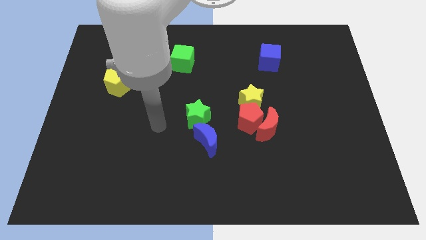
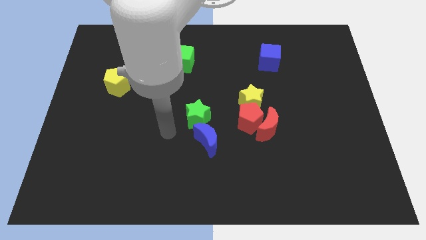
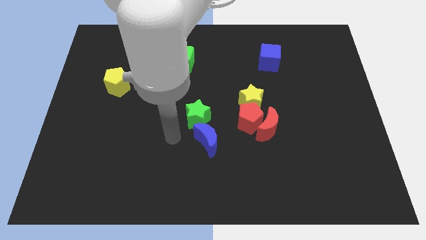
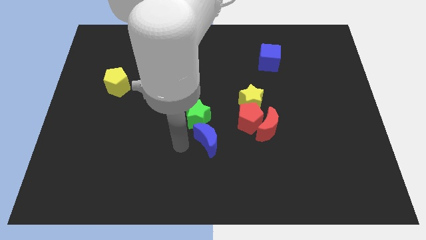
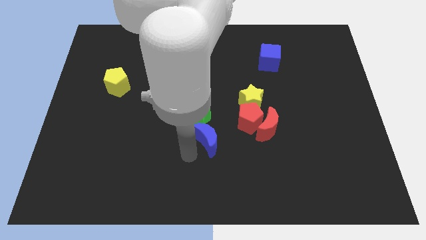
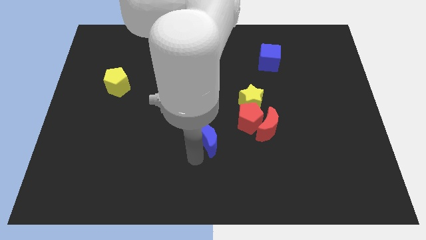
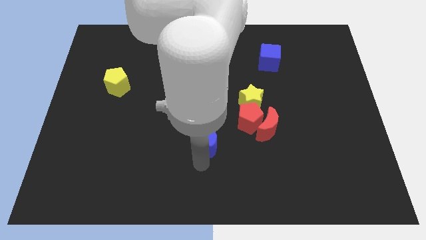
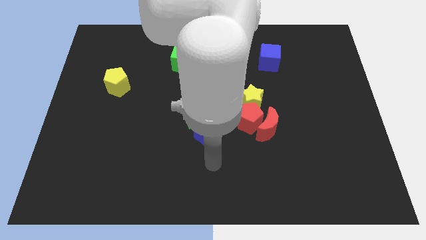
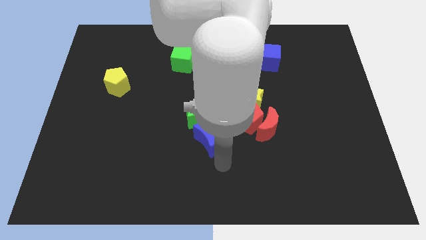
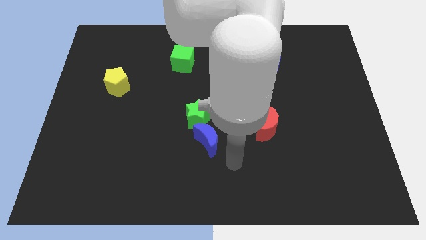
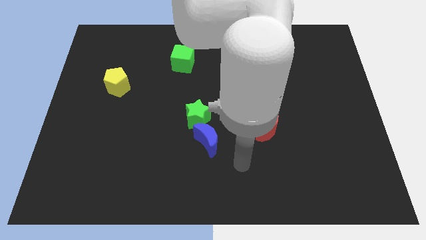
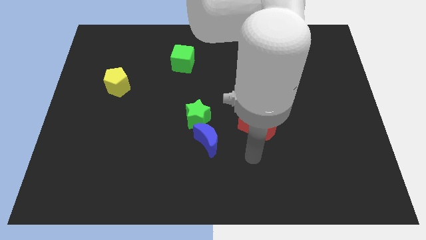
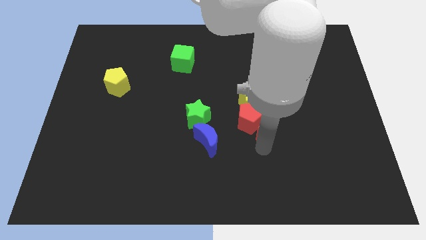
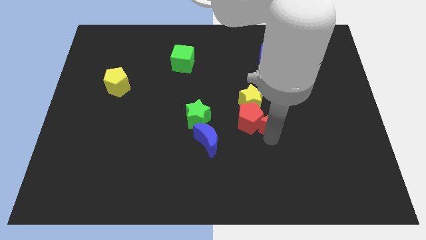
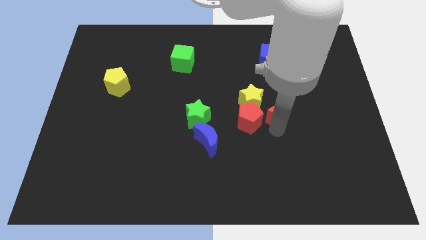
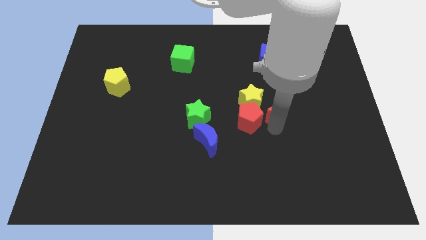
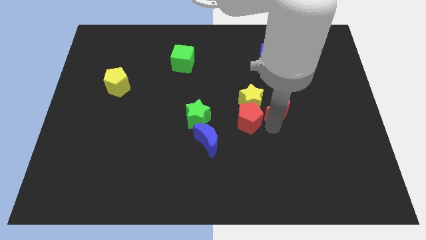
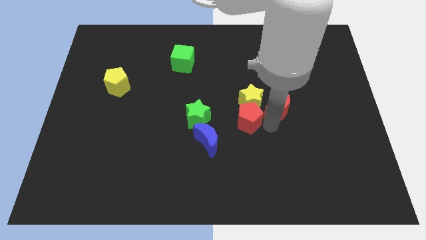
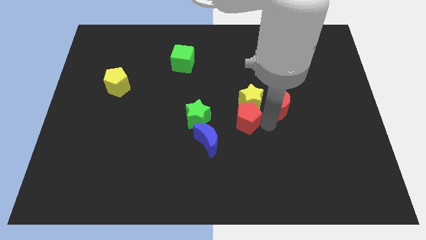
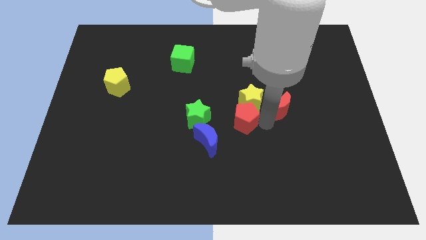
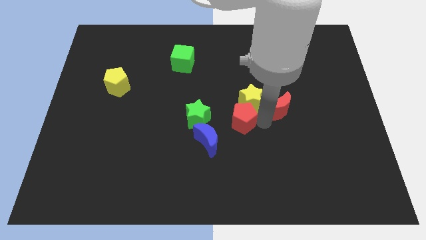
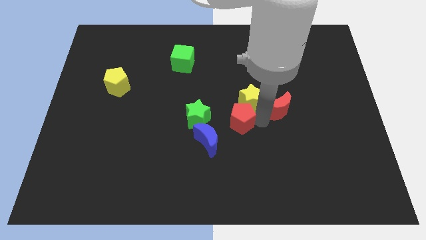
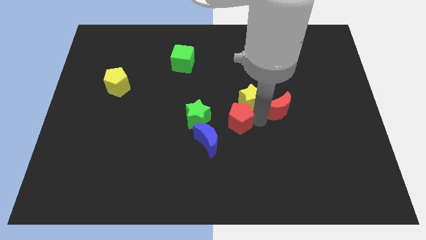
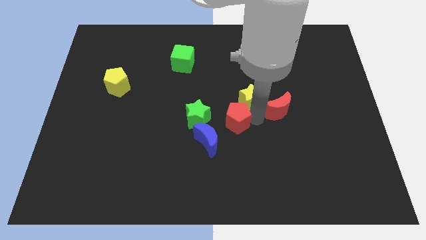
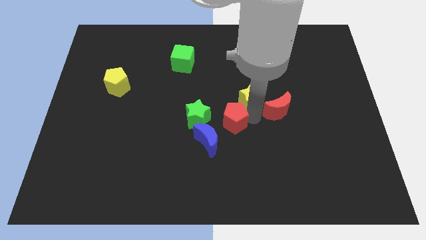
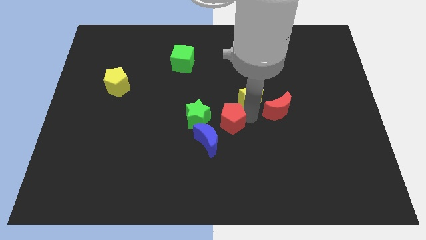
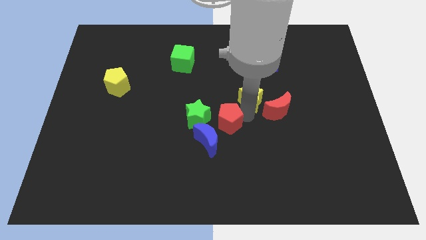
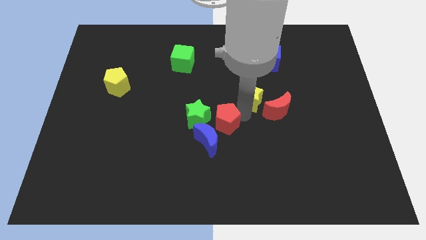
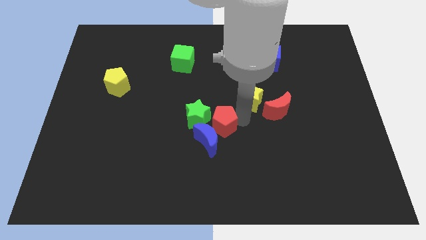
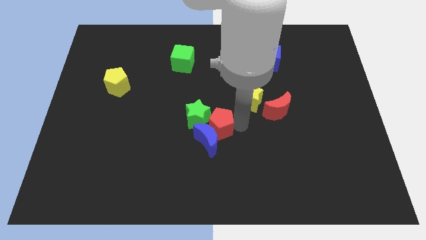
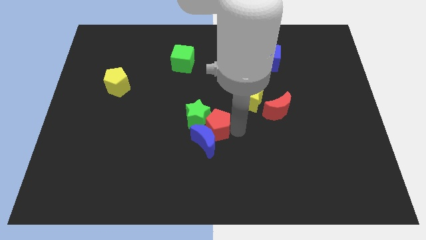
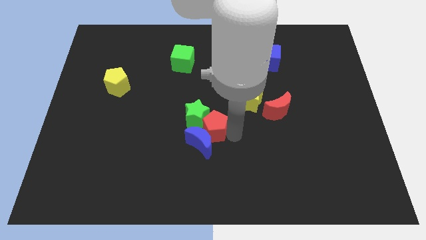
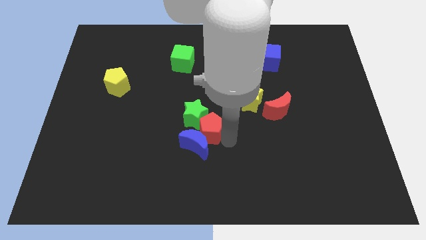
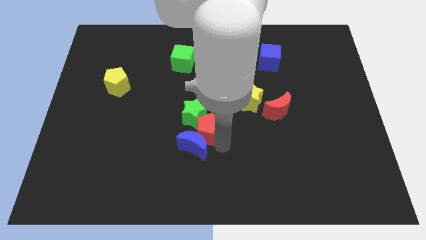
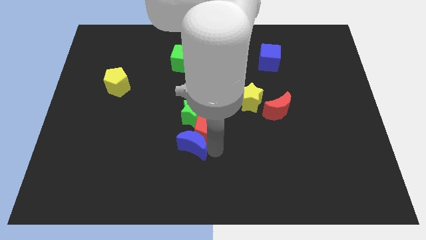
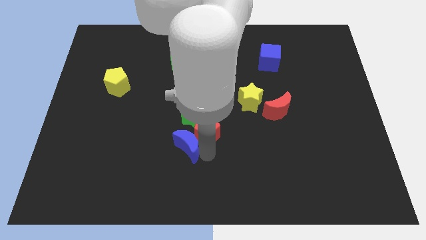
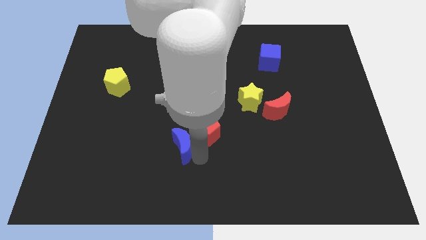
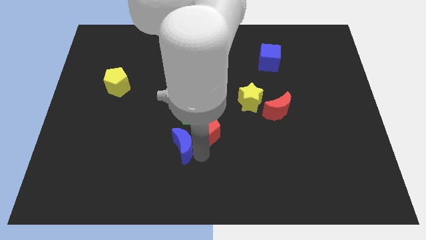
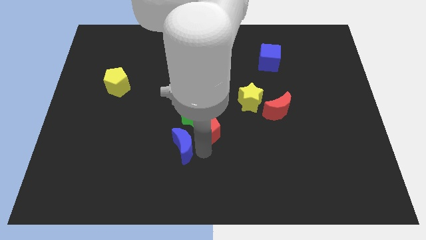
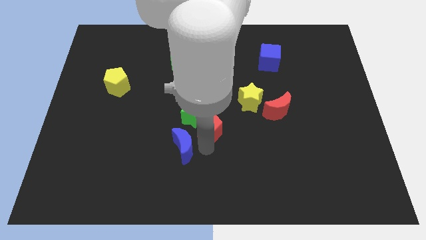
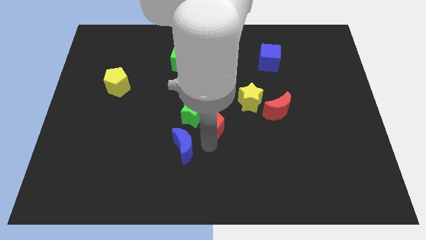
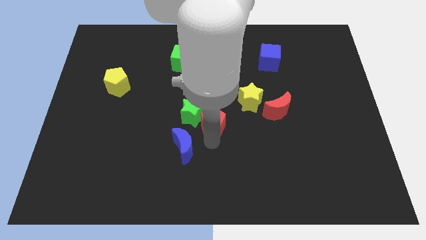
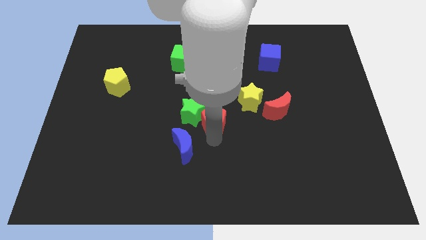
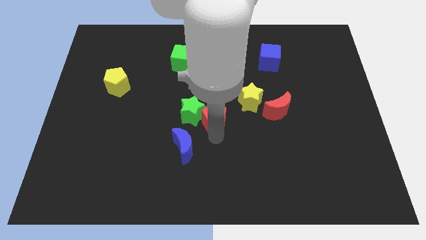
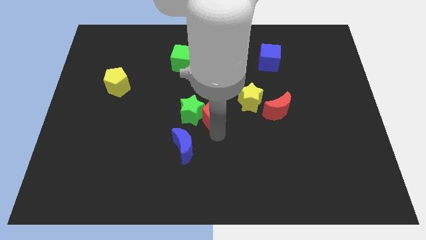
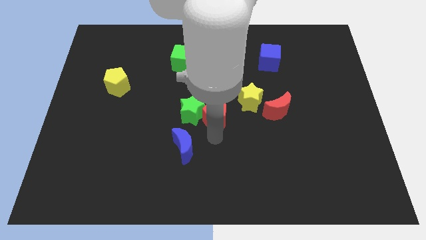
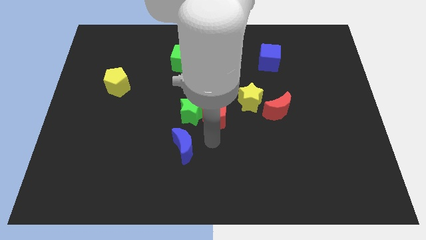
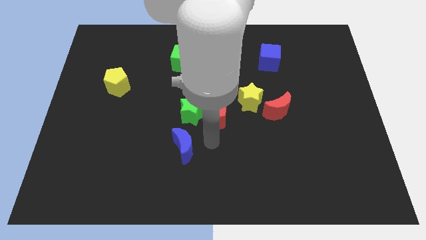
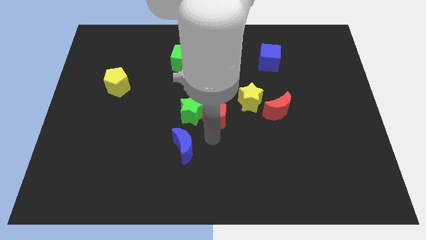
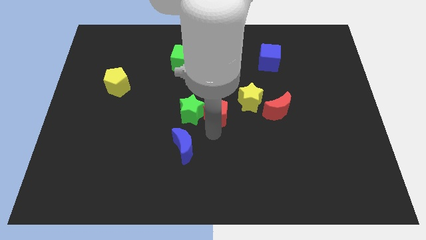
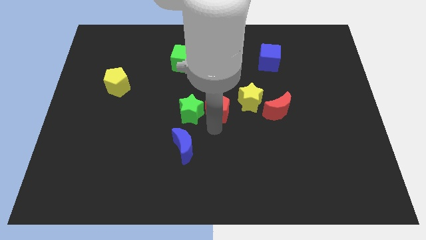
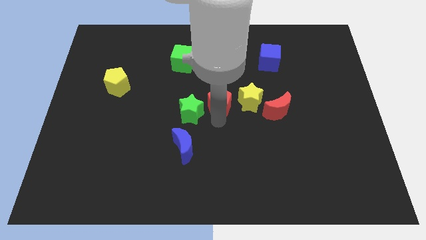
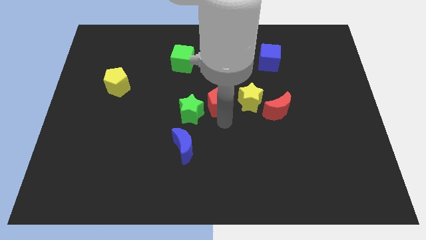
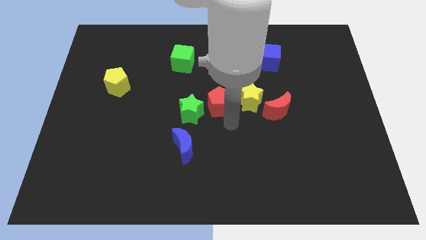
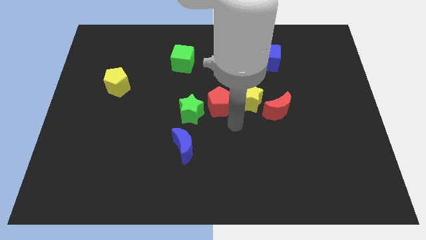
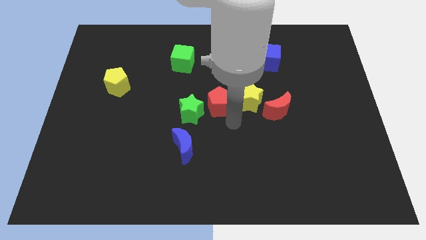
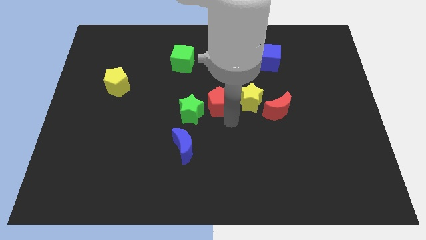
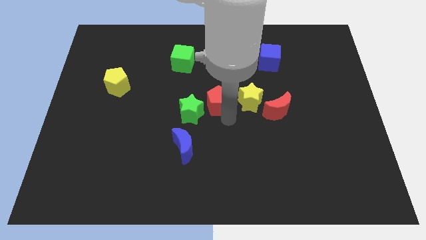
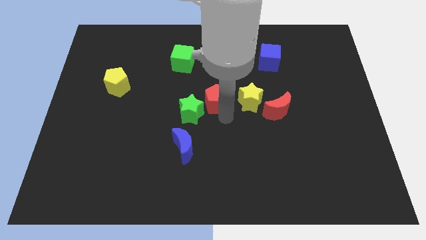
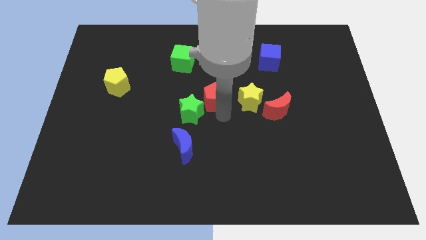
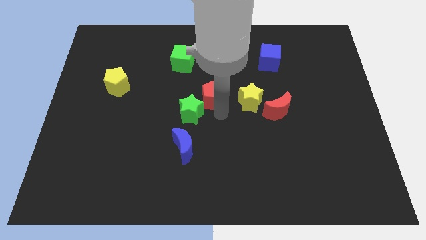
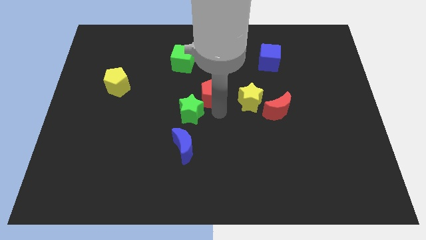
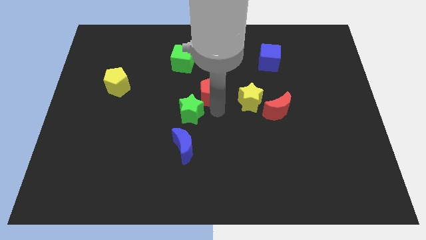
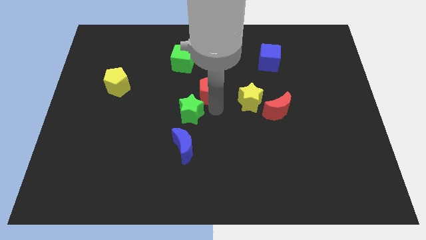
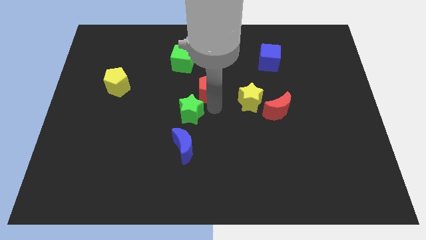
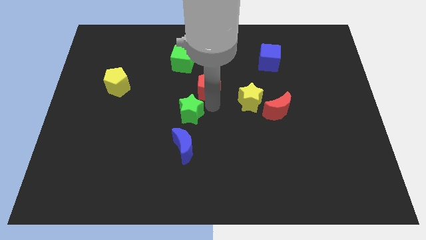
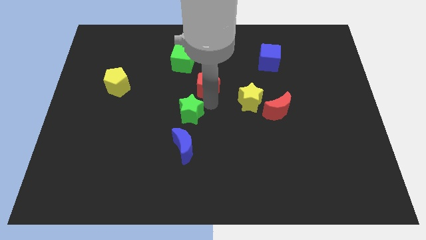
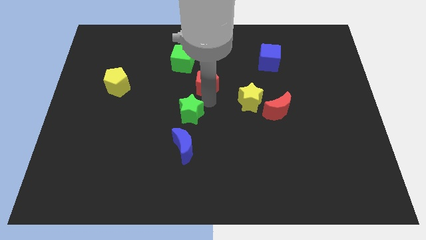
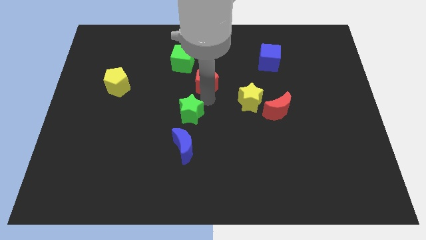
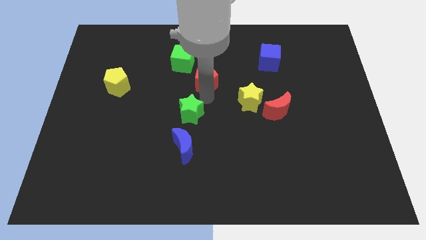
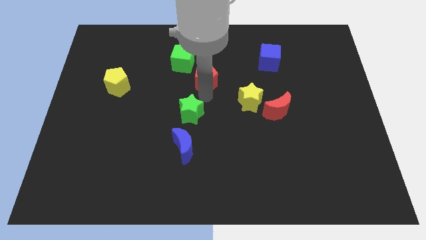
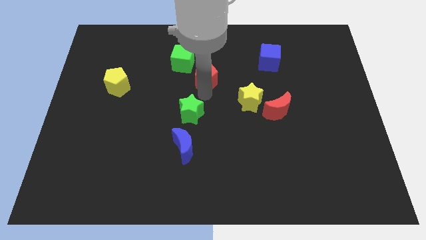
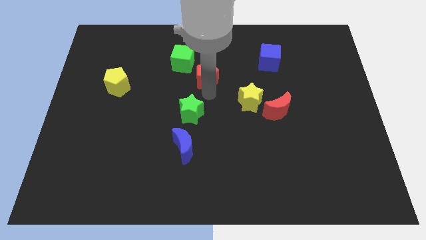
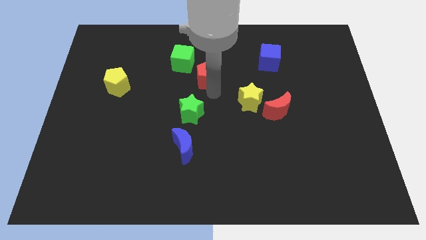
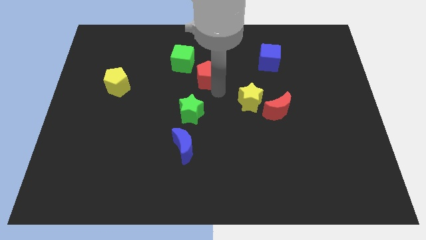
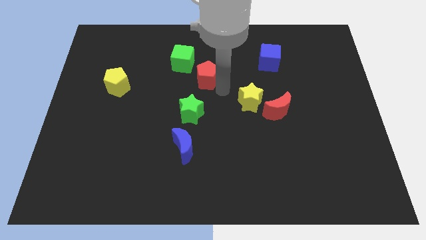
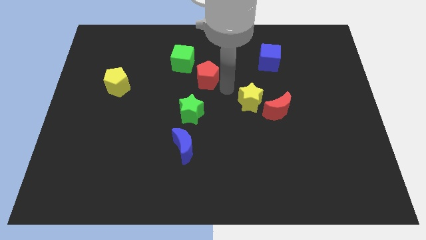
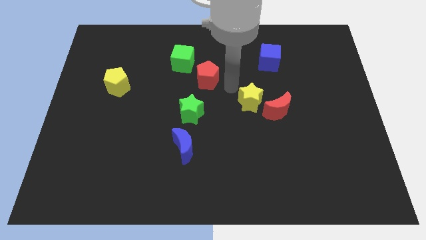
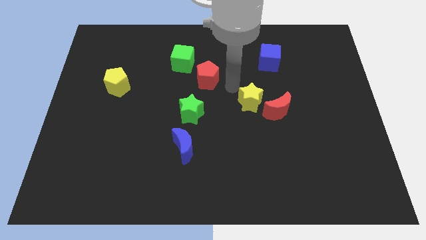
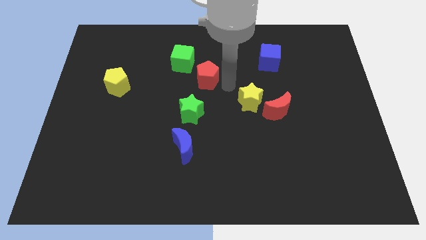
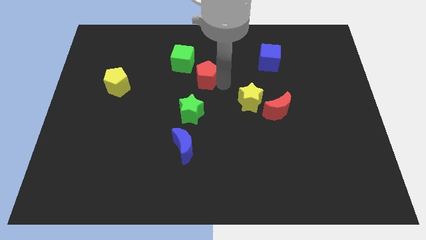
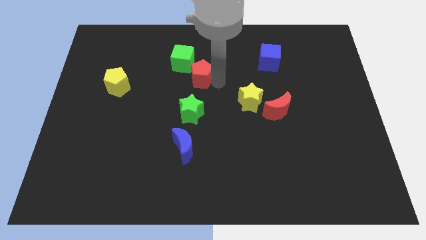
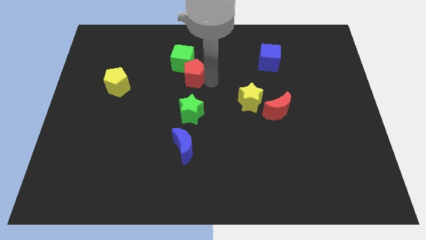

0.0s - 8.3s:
move the red pentagon close to the green cube

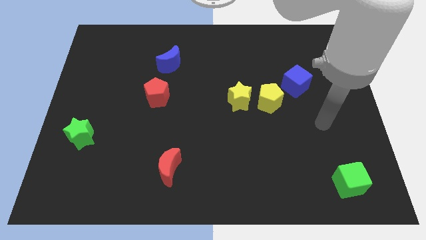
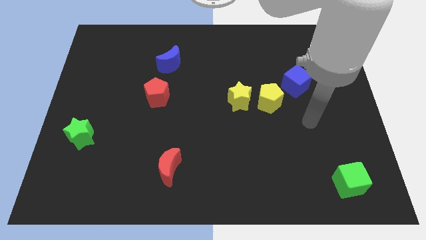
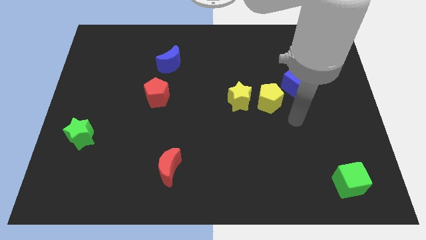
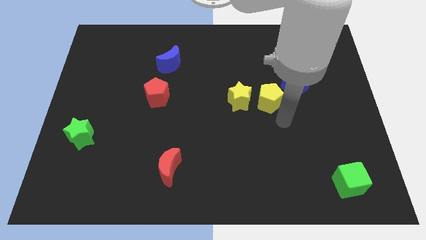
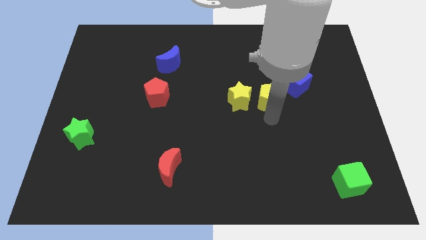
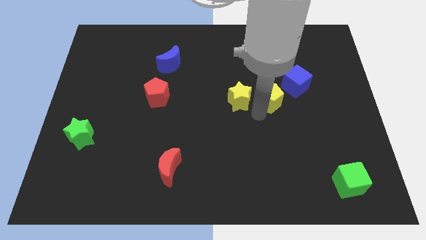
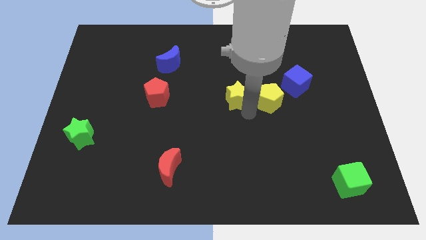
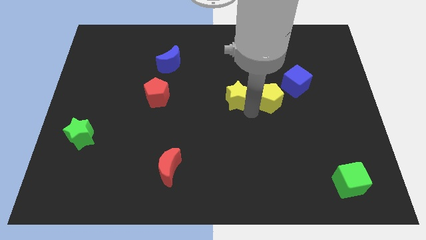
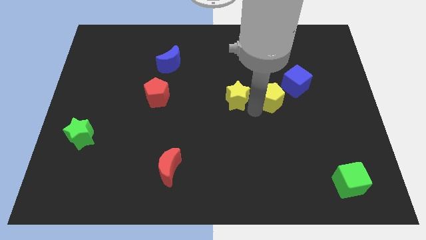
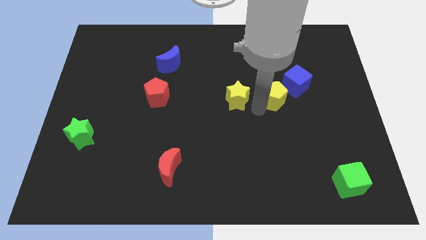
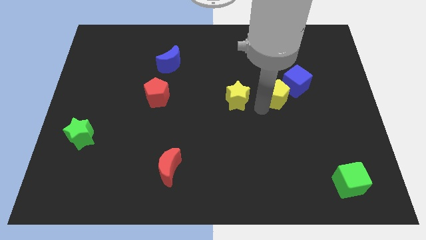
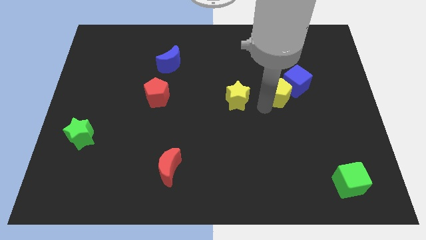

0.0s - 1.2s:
slide the yellow pentagon next to the blue cube
